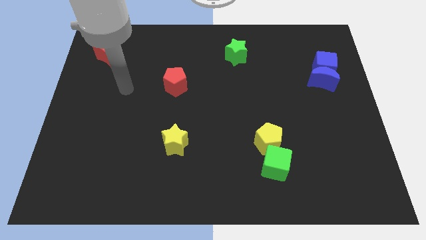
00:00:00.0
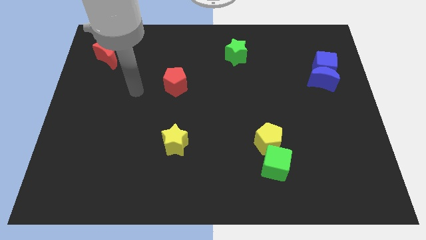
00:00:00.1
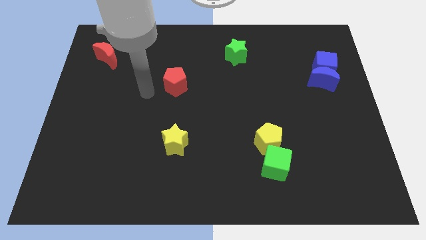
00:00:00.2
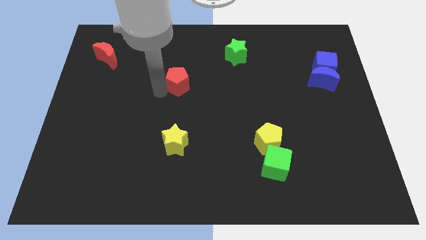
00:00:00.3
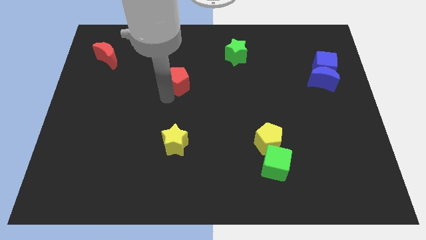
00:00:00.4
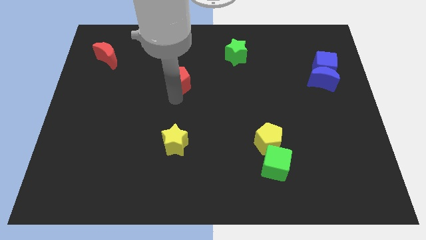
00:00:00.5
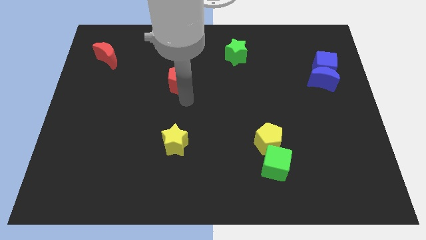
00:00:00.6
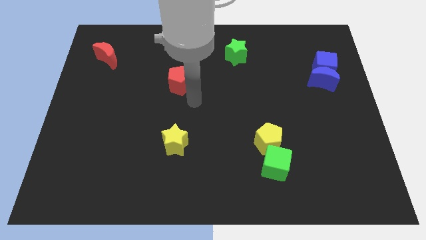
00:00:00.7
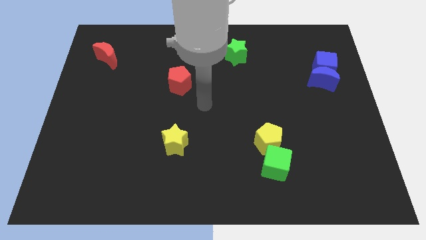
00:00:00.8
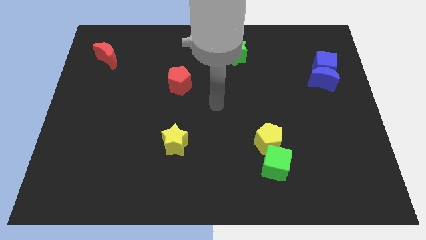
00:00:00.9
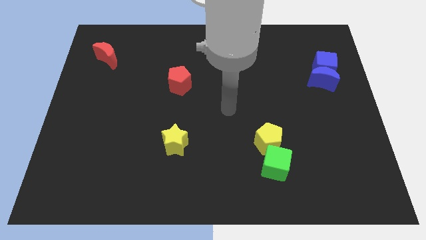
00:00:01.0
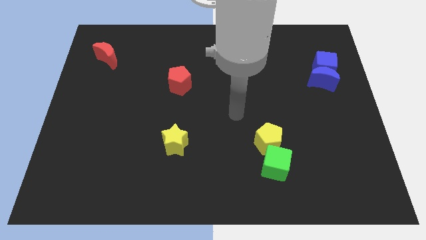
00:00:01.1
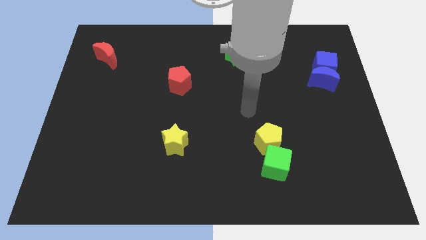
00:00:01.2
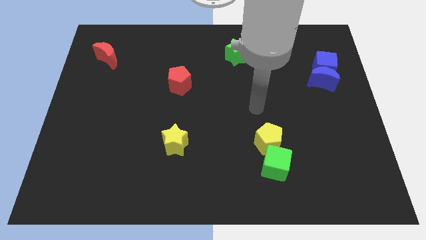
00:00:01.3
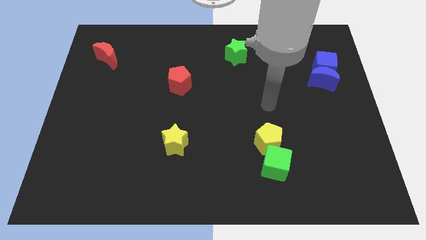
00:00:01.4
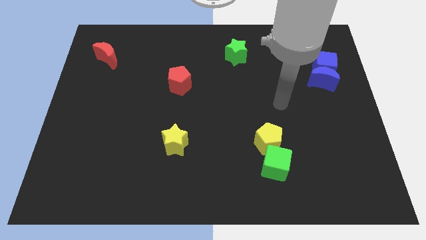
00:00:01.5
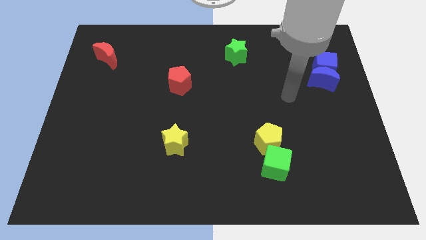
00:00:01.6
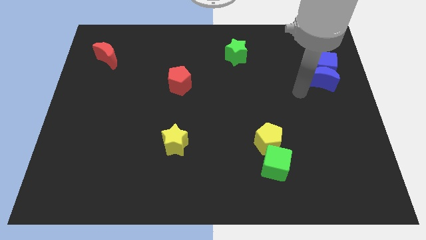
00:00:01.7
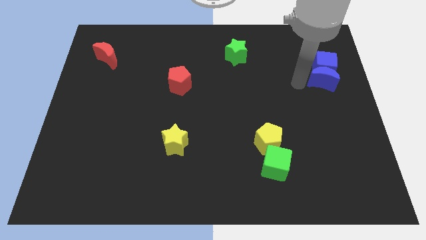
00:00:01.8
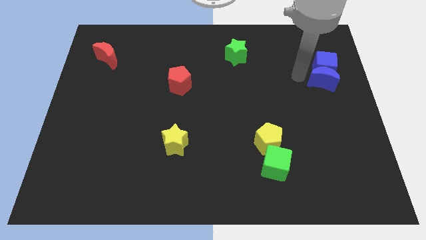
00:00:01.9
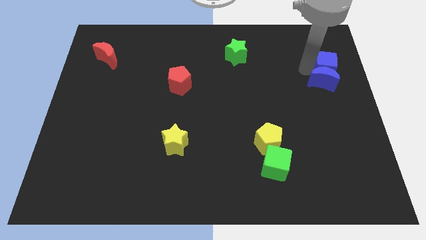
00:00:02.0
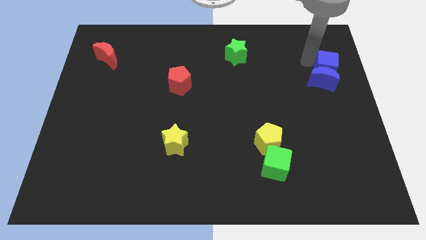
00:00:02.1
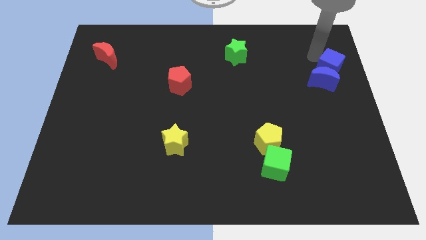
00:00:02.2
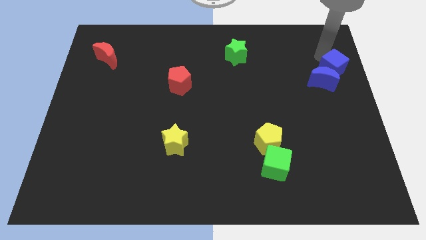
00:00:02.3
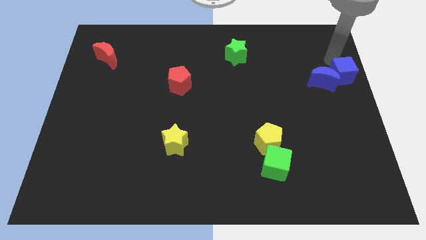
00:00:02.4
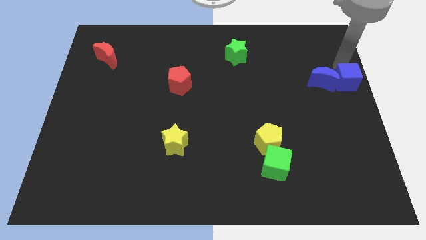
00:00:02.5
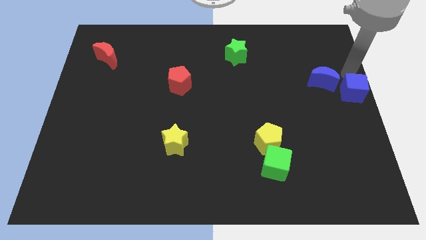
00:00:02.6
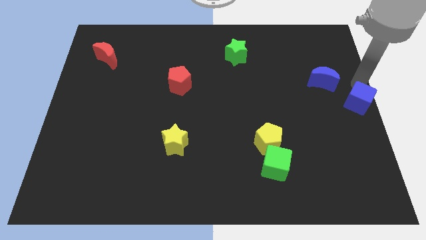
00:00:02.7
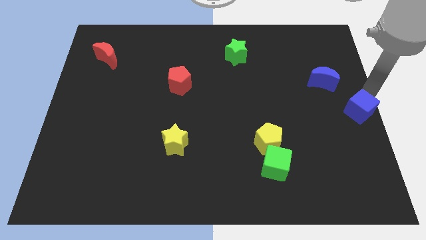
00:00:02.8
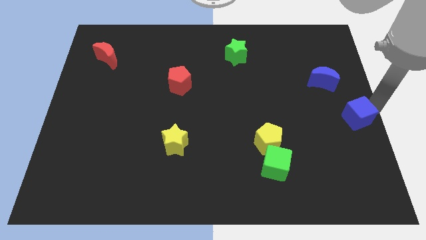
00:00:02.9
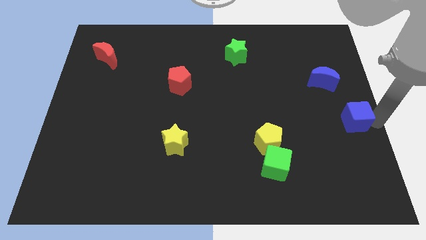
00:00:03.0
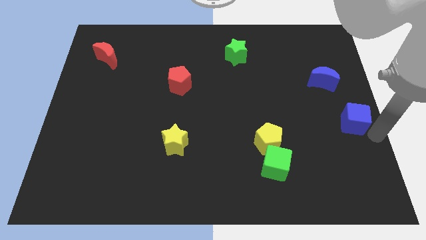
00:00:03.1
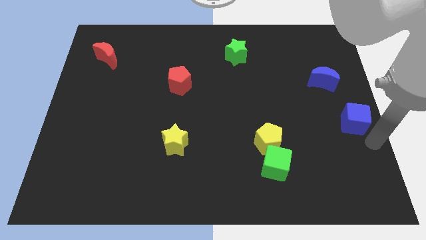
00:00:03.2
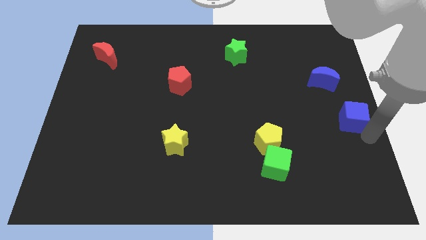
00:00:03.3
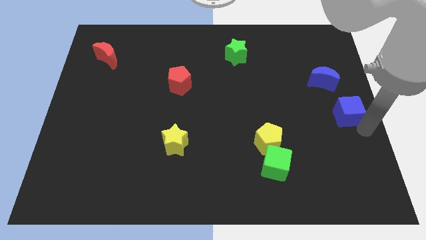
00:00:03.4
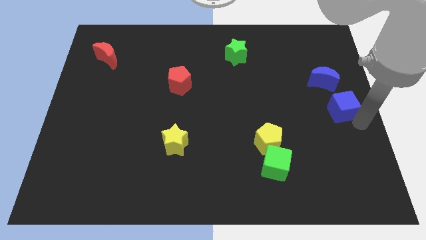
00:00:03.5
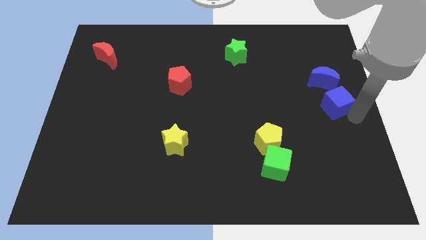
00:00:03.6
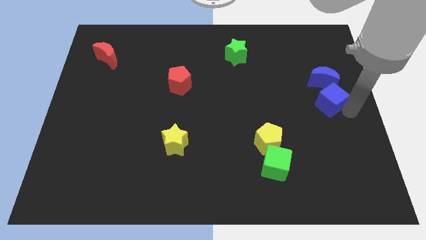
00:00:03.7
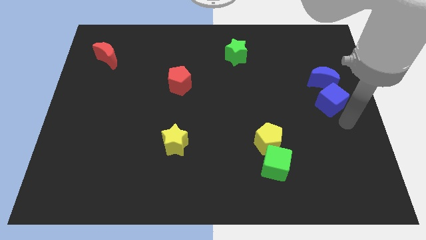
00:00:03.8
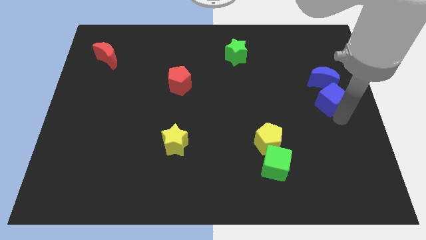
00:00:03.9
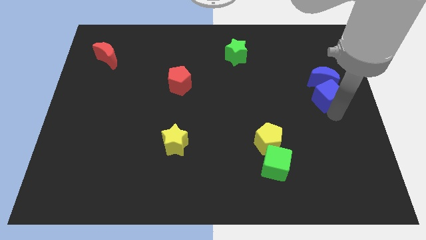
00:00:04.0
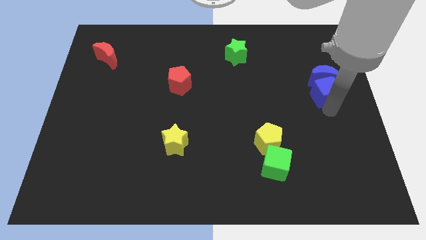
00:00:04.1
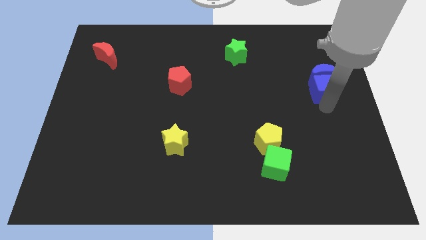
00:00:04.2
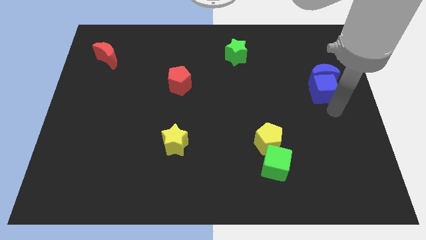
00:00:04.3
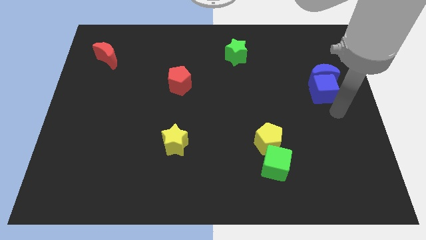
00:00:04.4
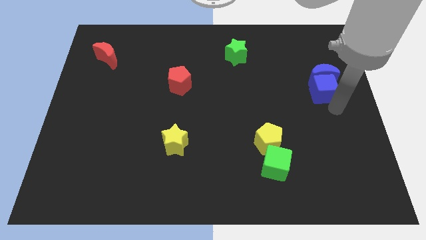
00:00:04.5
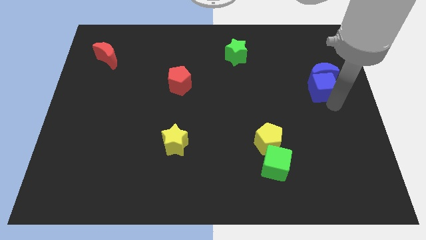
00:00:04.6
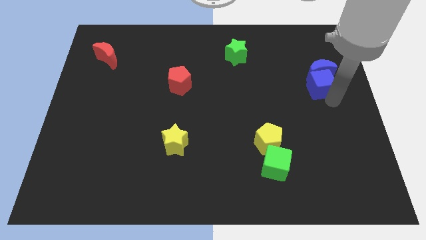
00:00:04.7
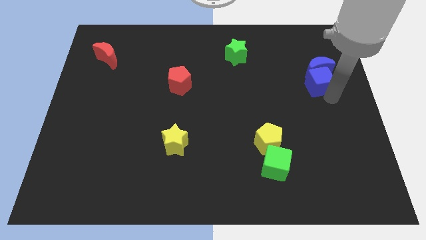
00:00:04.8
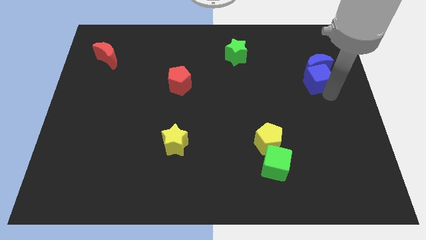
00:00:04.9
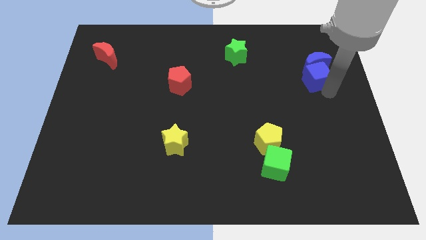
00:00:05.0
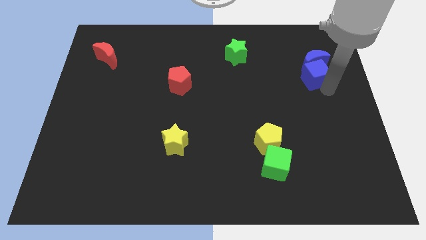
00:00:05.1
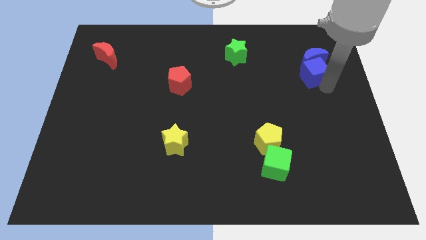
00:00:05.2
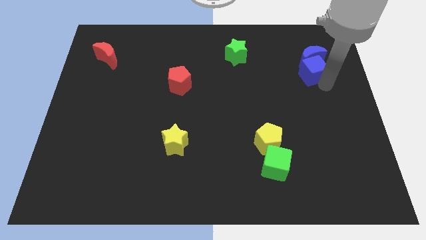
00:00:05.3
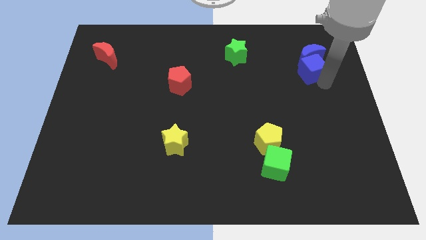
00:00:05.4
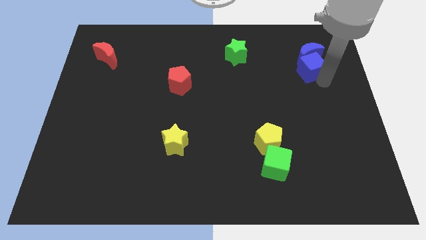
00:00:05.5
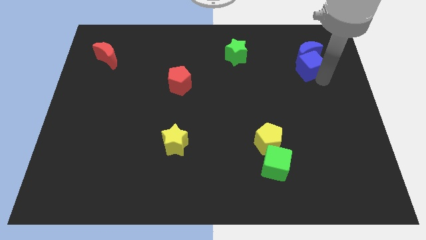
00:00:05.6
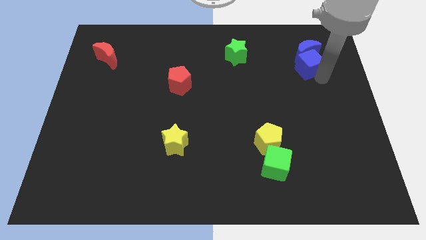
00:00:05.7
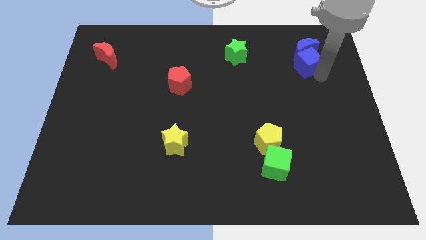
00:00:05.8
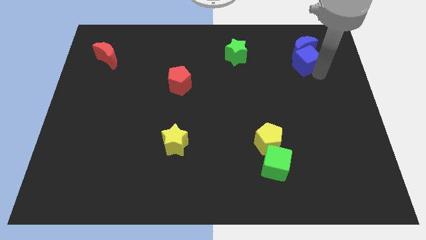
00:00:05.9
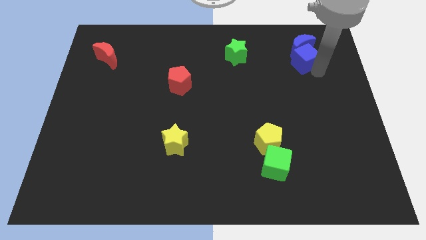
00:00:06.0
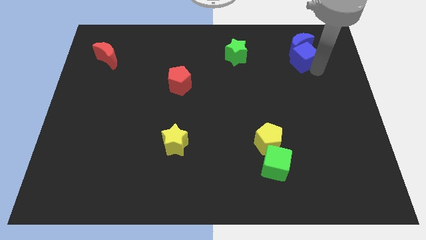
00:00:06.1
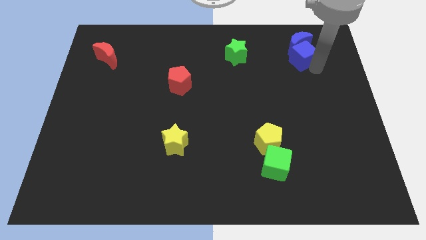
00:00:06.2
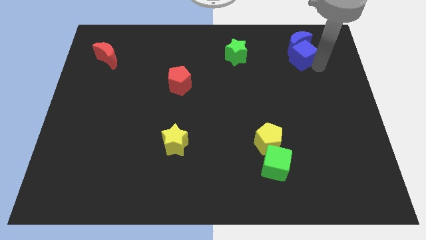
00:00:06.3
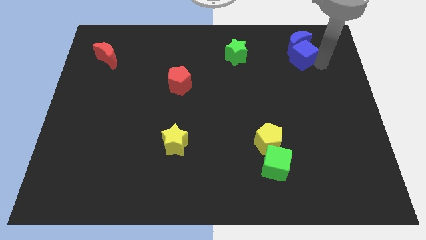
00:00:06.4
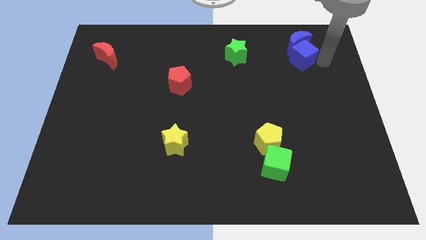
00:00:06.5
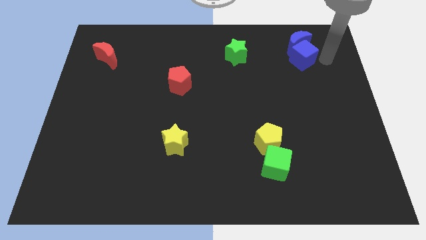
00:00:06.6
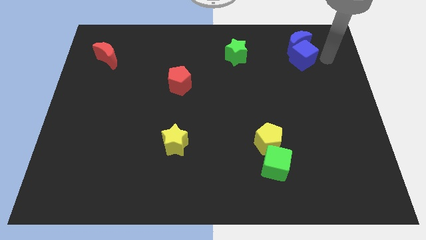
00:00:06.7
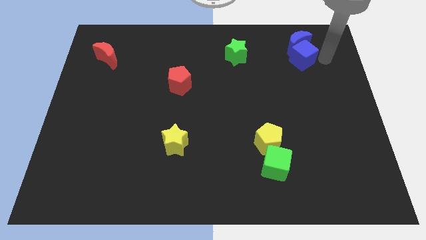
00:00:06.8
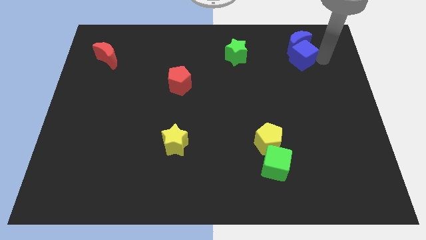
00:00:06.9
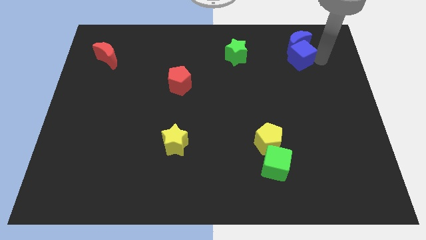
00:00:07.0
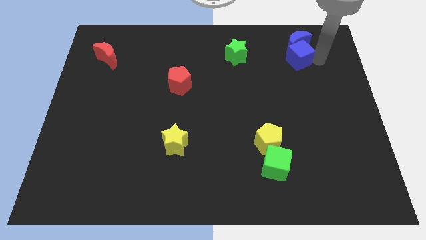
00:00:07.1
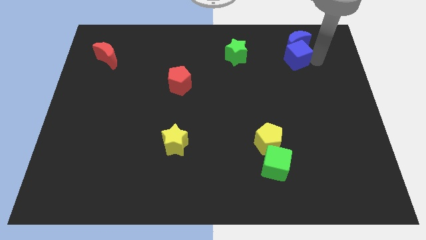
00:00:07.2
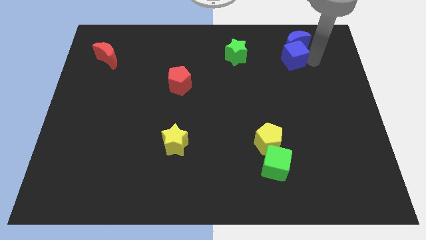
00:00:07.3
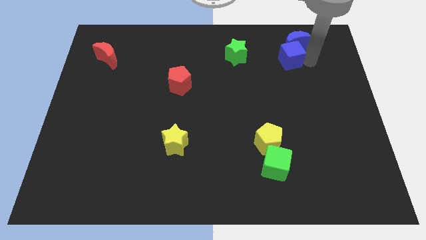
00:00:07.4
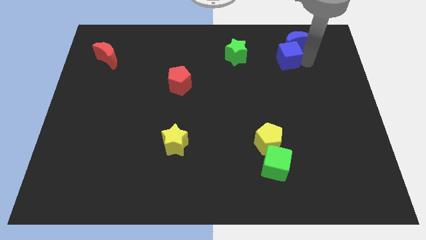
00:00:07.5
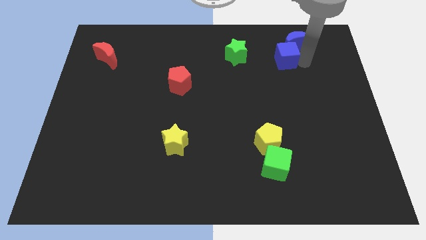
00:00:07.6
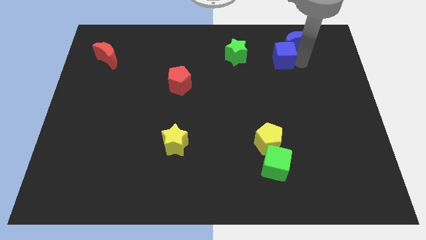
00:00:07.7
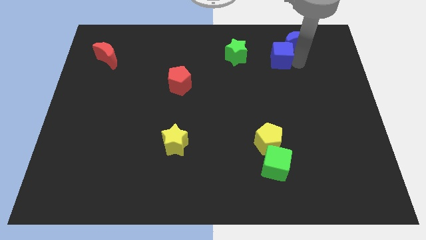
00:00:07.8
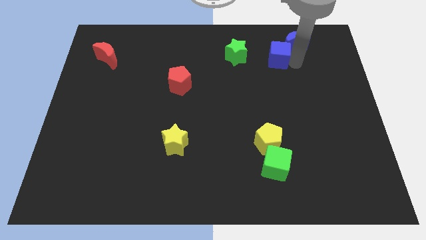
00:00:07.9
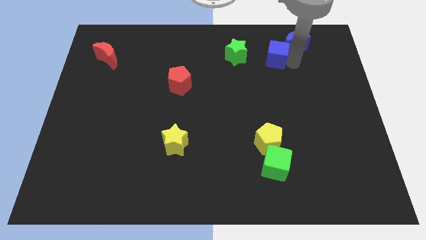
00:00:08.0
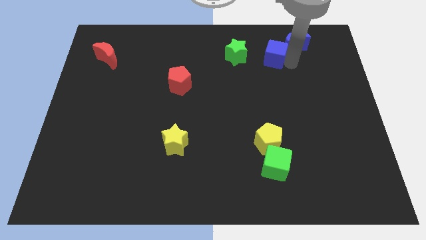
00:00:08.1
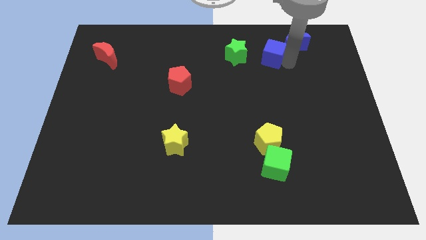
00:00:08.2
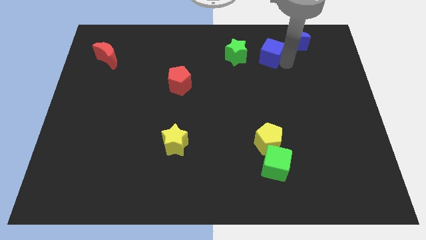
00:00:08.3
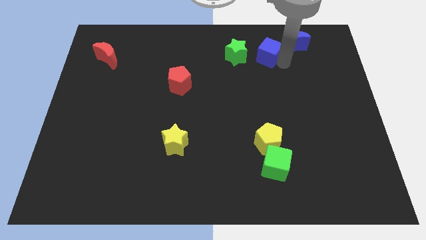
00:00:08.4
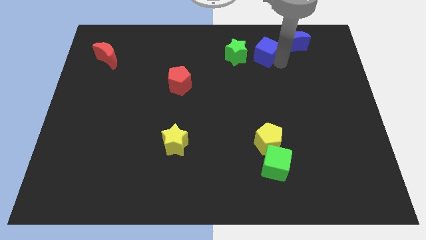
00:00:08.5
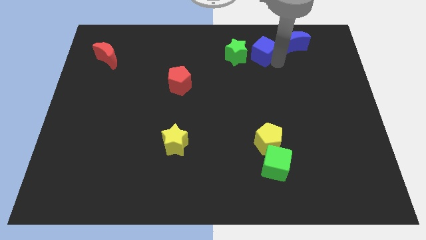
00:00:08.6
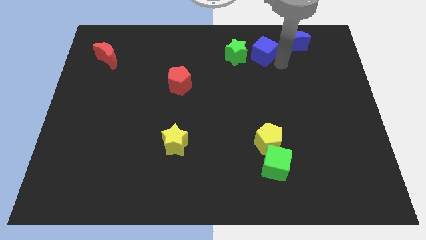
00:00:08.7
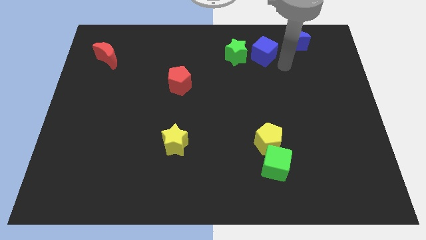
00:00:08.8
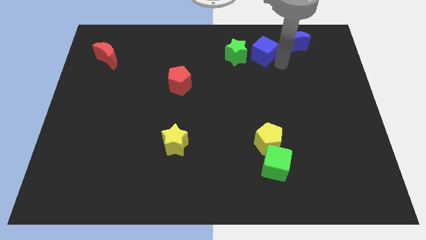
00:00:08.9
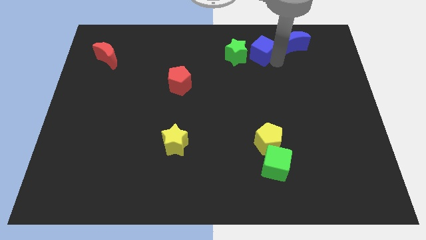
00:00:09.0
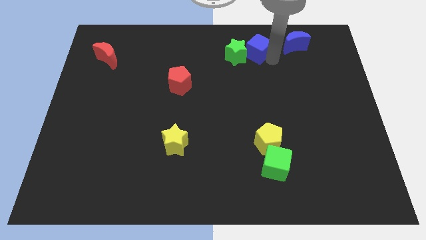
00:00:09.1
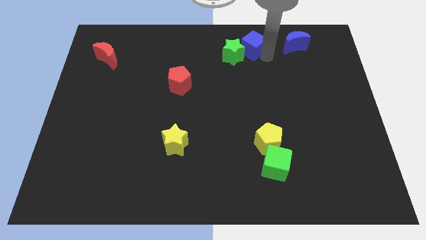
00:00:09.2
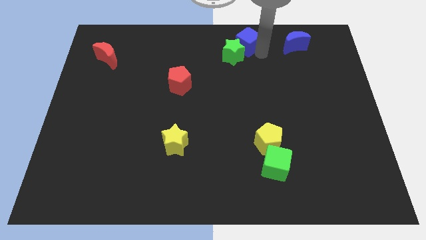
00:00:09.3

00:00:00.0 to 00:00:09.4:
move the blue cube to the towards your base
